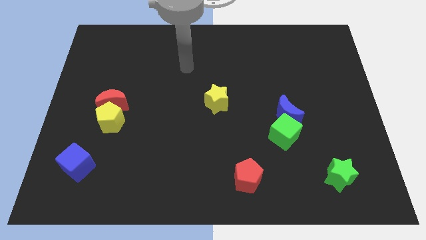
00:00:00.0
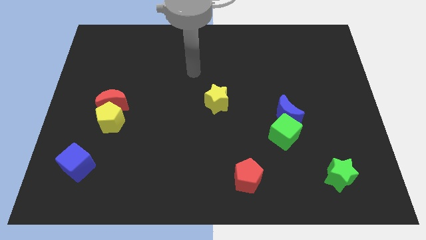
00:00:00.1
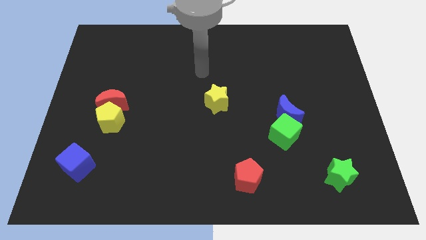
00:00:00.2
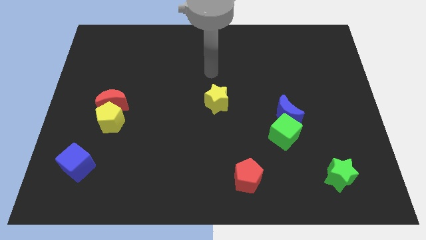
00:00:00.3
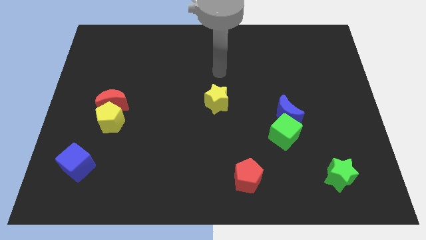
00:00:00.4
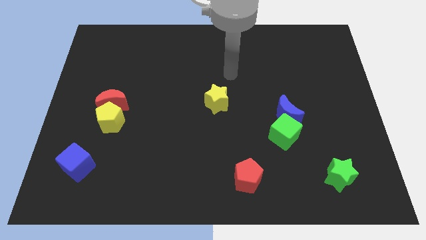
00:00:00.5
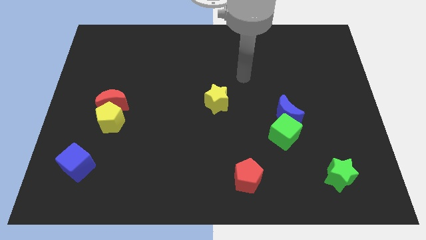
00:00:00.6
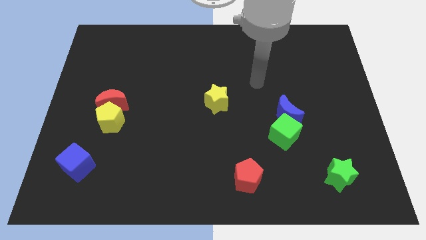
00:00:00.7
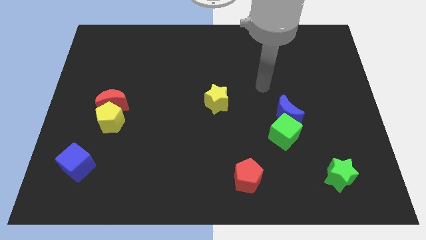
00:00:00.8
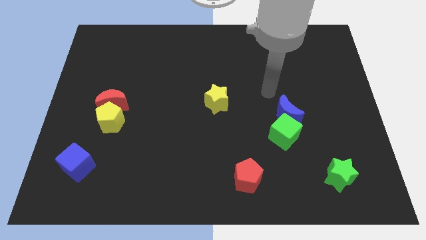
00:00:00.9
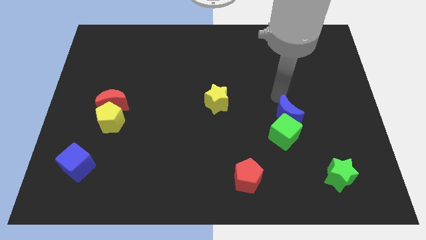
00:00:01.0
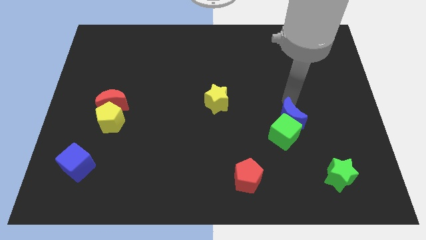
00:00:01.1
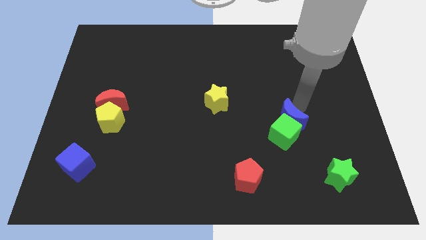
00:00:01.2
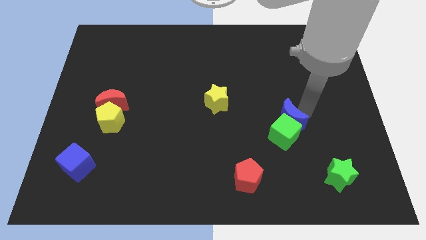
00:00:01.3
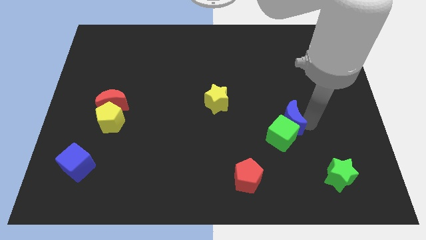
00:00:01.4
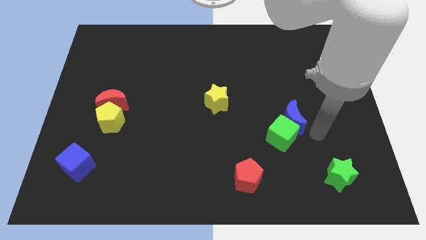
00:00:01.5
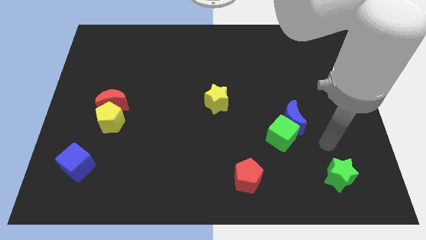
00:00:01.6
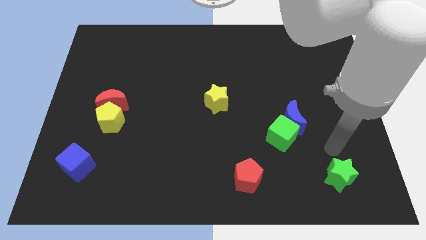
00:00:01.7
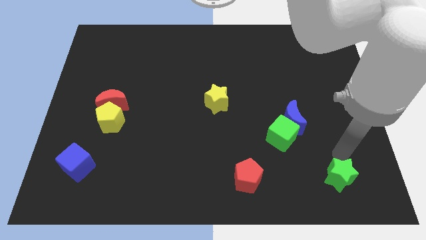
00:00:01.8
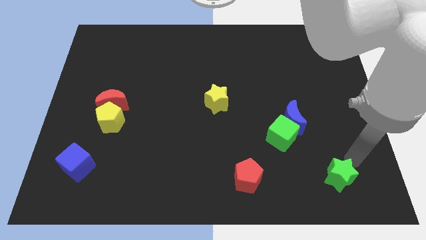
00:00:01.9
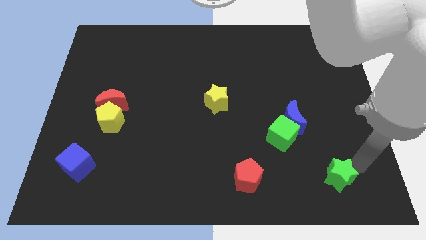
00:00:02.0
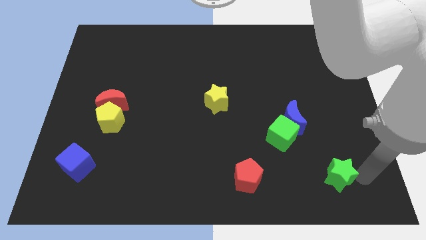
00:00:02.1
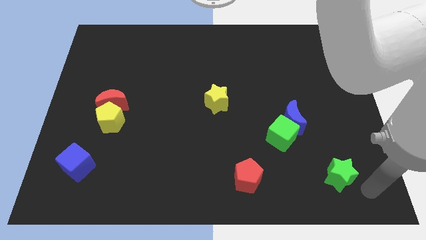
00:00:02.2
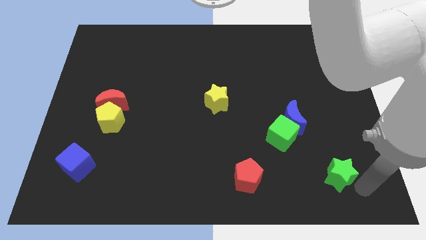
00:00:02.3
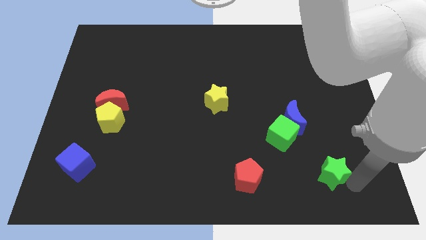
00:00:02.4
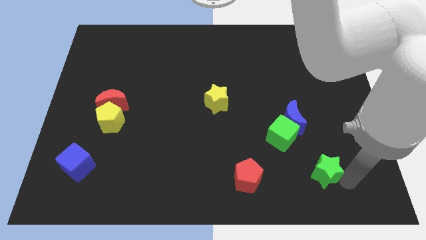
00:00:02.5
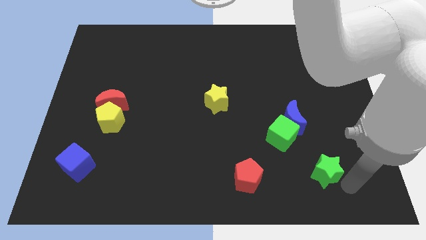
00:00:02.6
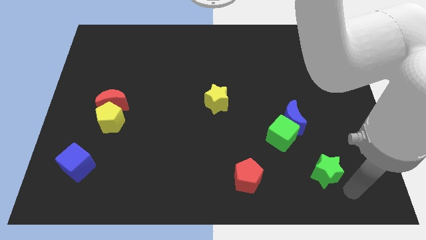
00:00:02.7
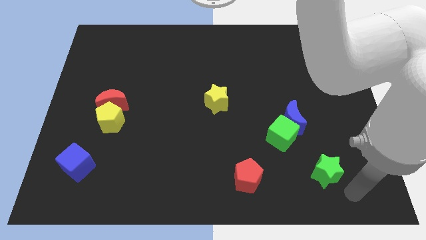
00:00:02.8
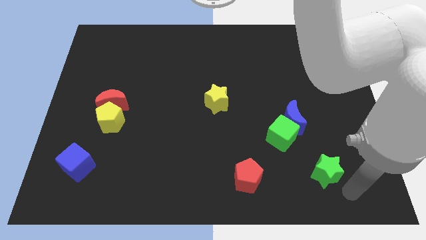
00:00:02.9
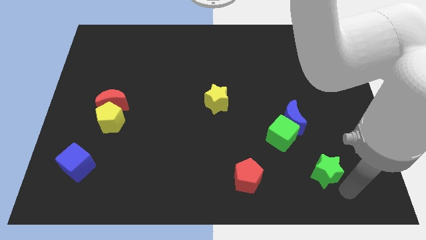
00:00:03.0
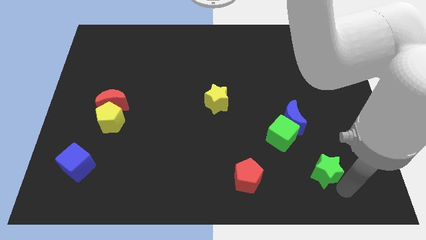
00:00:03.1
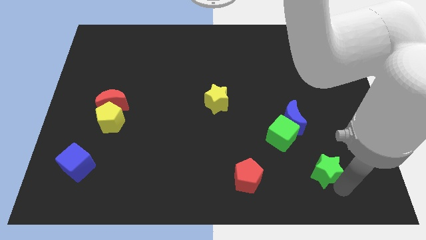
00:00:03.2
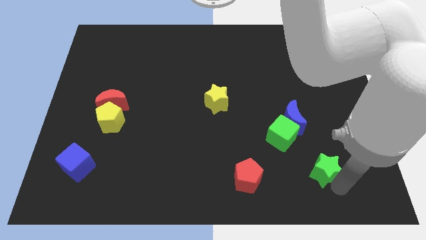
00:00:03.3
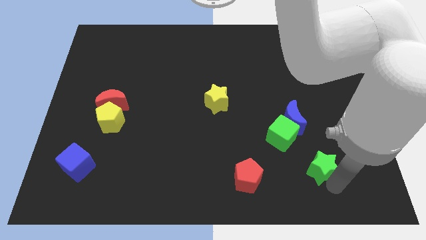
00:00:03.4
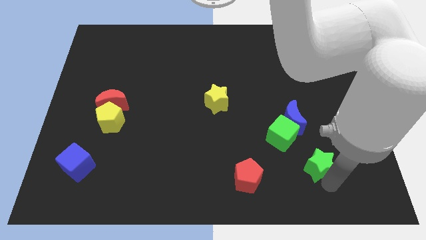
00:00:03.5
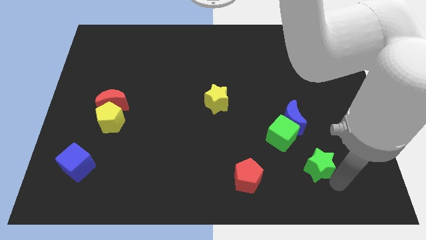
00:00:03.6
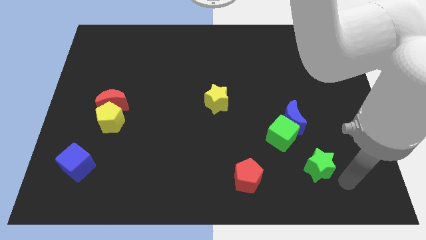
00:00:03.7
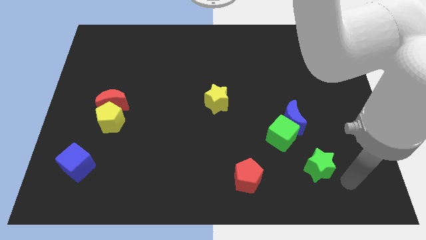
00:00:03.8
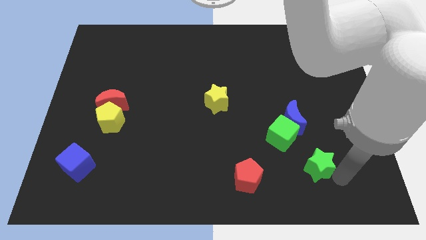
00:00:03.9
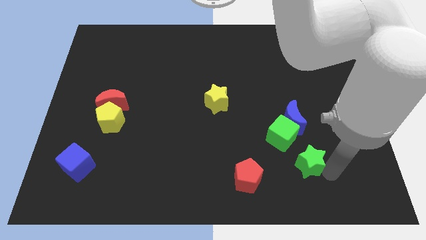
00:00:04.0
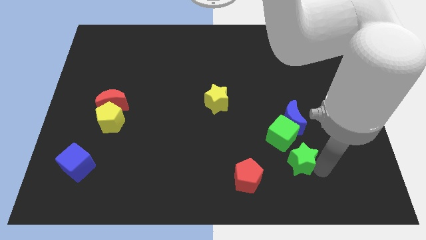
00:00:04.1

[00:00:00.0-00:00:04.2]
move the green star a little bit upwards and to the left diagonally

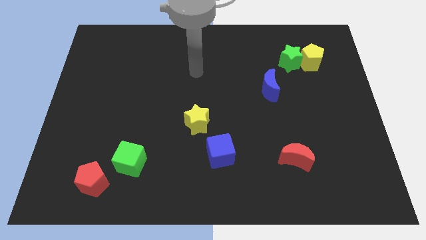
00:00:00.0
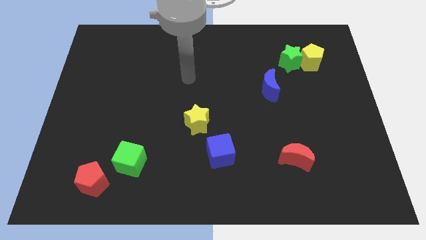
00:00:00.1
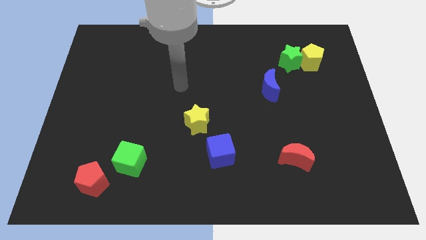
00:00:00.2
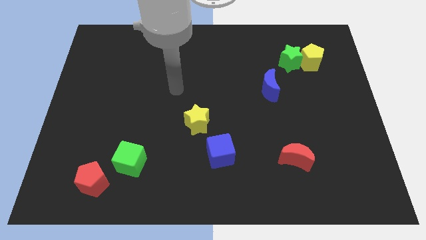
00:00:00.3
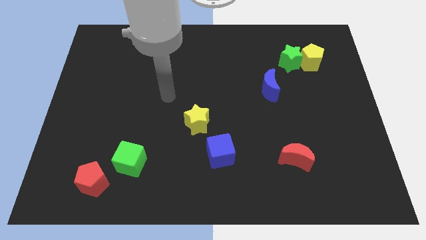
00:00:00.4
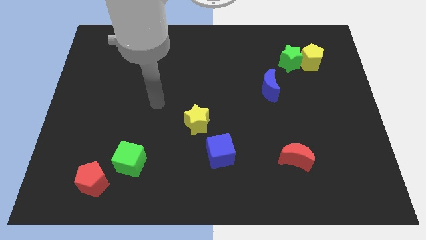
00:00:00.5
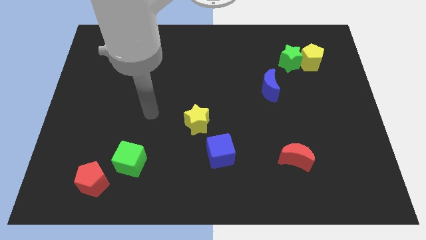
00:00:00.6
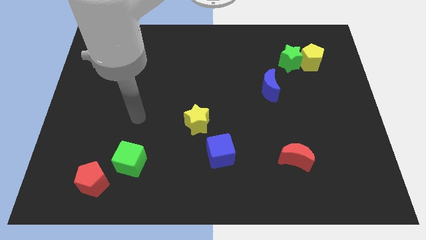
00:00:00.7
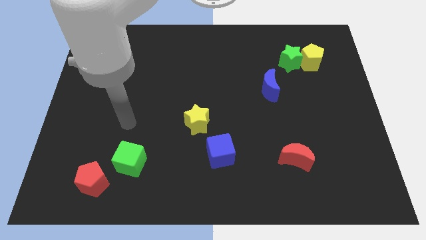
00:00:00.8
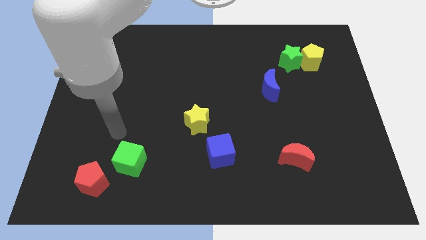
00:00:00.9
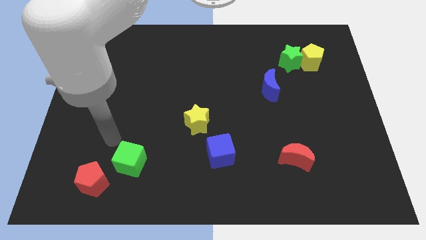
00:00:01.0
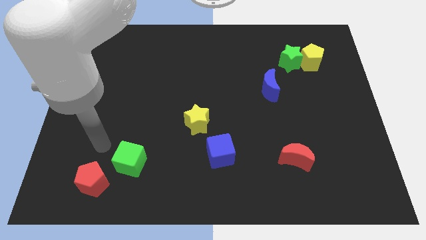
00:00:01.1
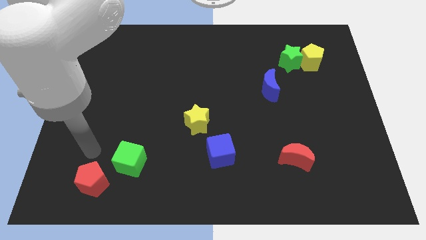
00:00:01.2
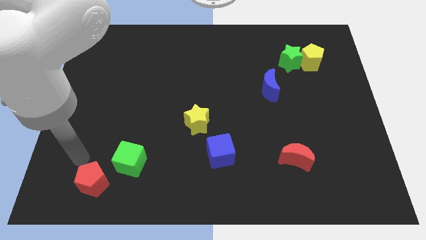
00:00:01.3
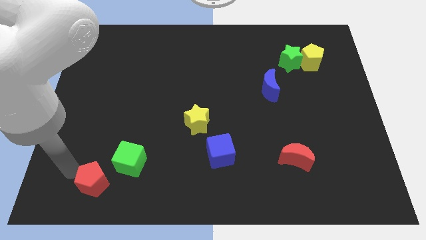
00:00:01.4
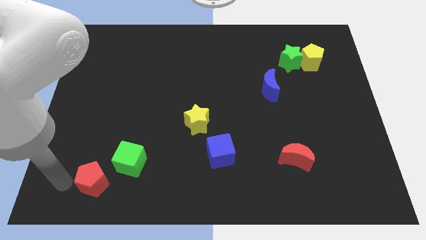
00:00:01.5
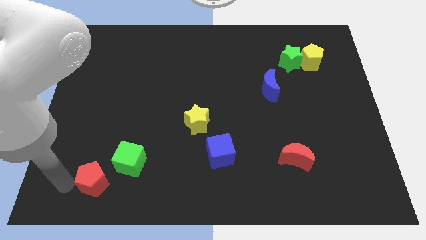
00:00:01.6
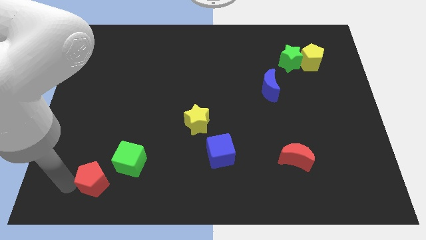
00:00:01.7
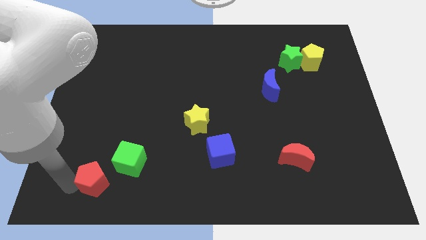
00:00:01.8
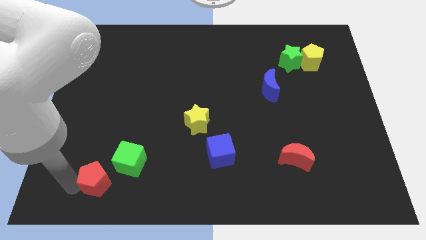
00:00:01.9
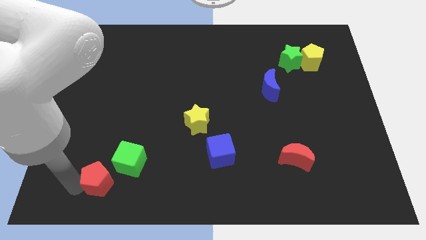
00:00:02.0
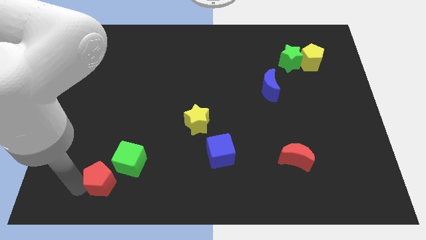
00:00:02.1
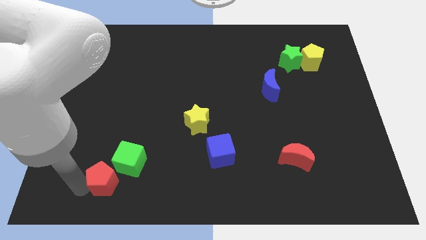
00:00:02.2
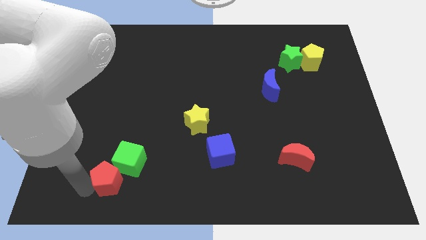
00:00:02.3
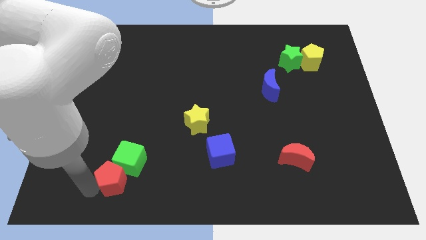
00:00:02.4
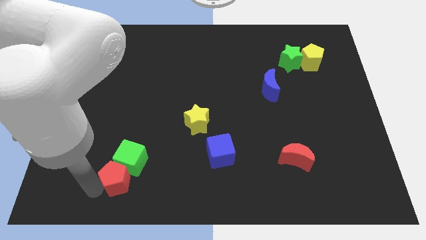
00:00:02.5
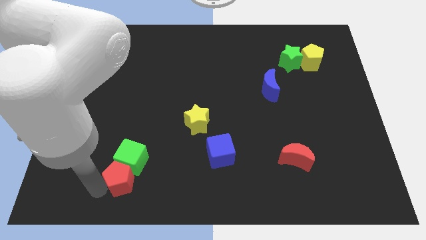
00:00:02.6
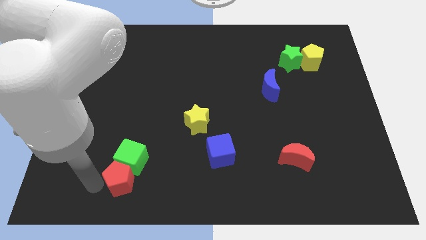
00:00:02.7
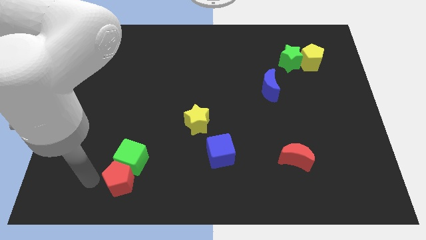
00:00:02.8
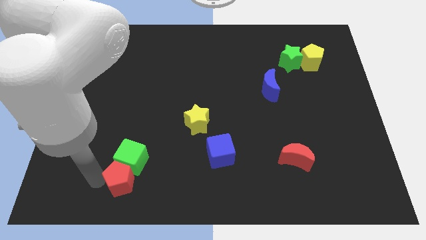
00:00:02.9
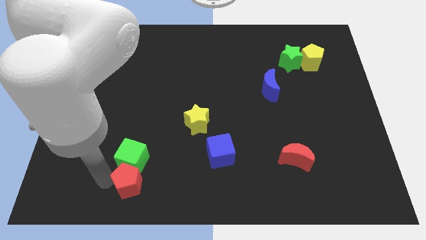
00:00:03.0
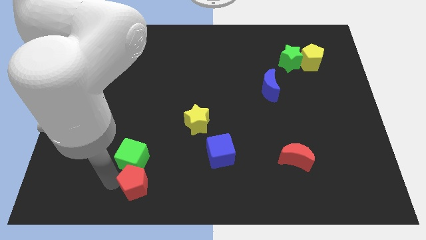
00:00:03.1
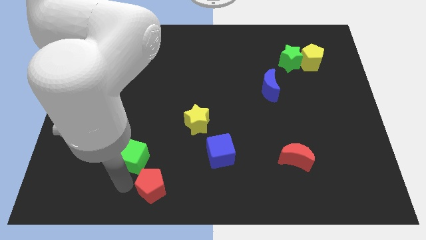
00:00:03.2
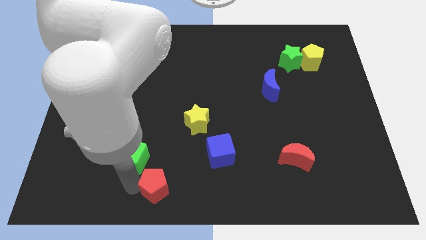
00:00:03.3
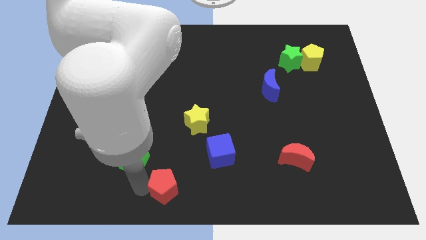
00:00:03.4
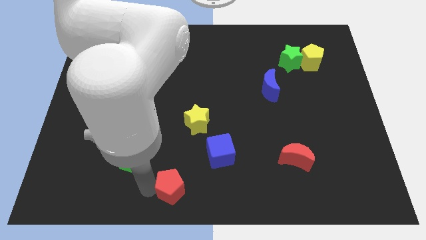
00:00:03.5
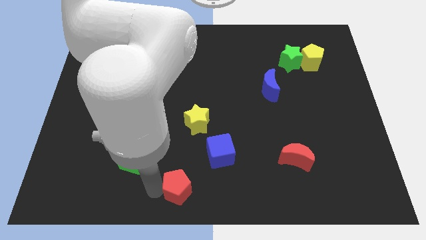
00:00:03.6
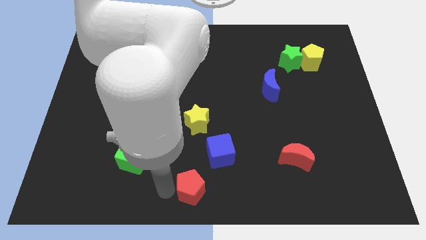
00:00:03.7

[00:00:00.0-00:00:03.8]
slide the red pentagon right
